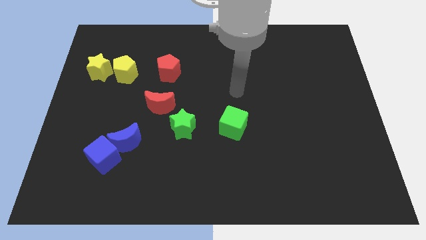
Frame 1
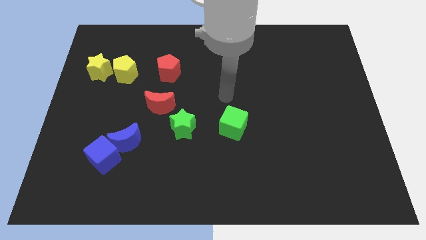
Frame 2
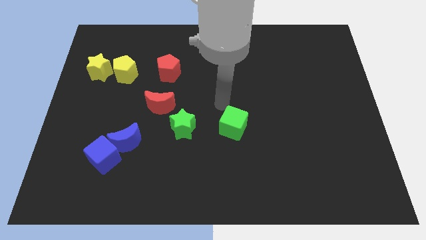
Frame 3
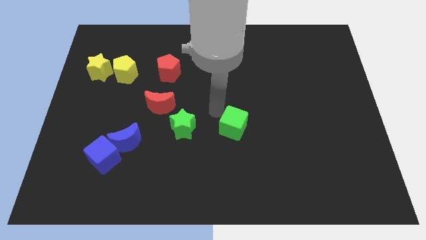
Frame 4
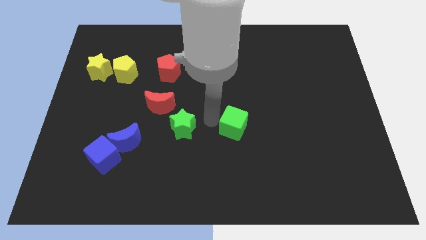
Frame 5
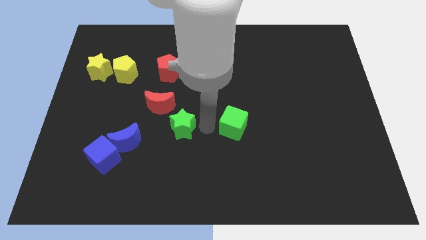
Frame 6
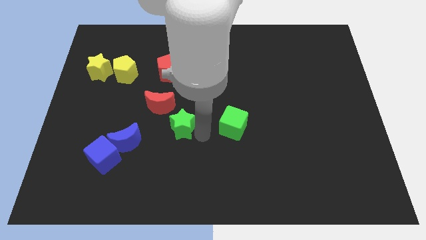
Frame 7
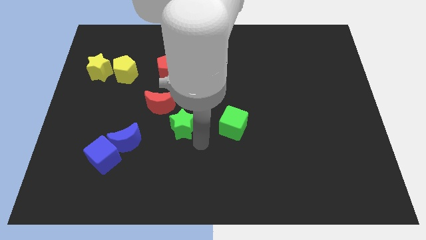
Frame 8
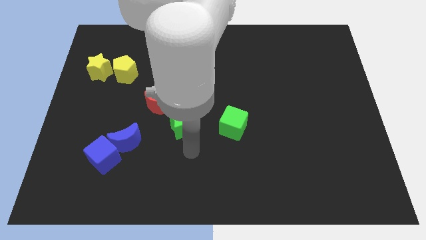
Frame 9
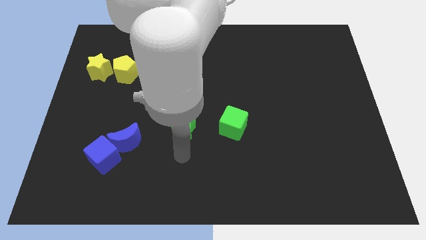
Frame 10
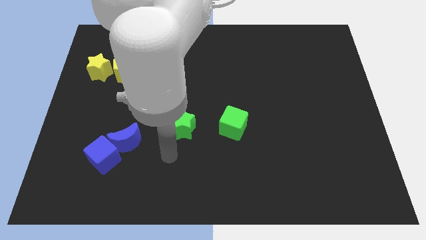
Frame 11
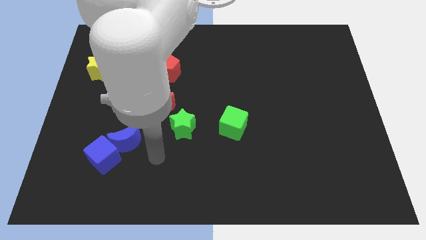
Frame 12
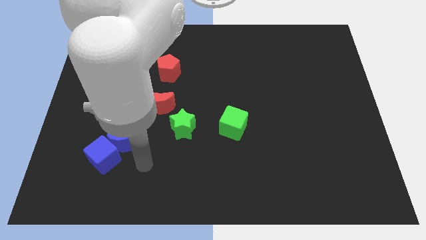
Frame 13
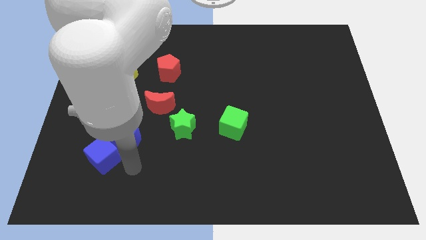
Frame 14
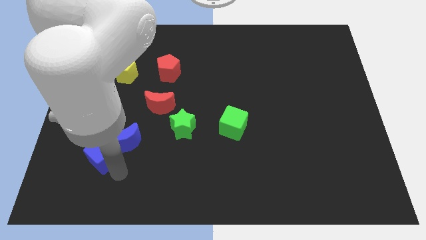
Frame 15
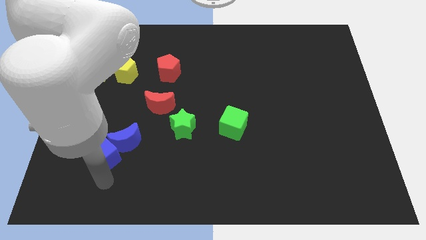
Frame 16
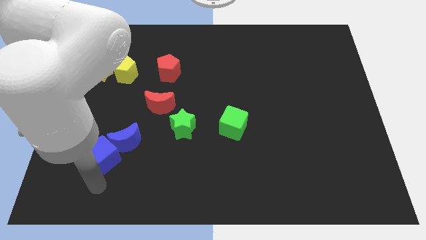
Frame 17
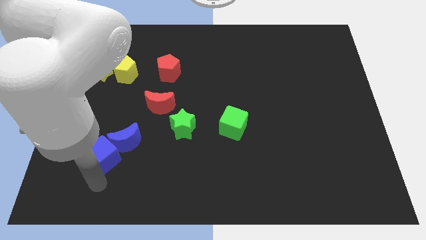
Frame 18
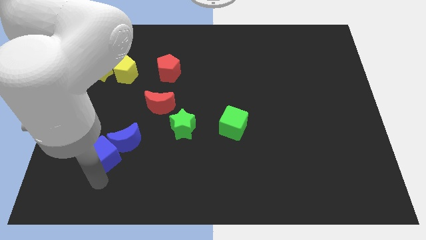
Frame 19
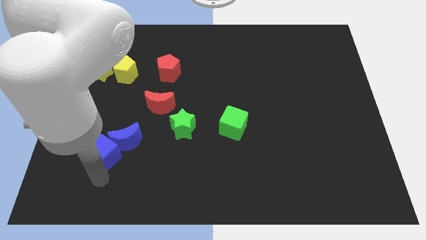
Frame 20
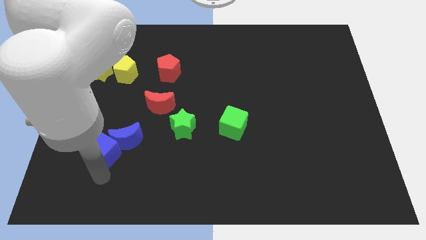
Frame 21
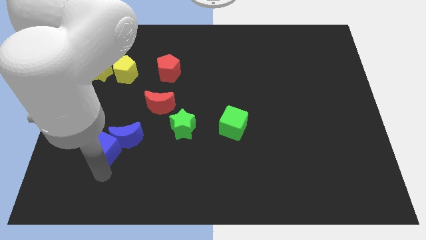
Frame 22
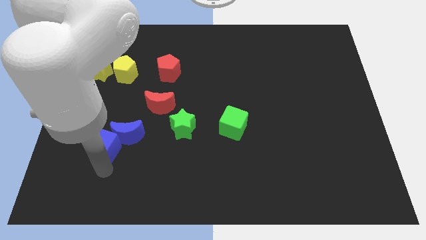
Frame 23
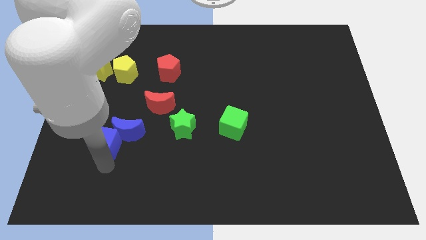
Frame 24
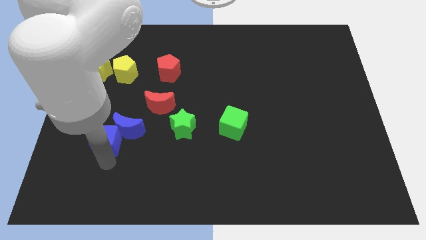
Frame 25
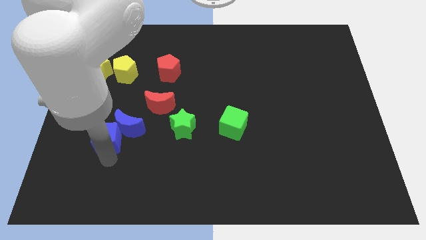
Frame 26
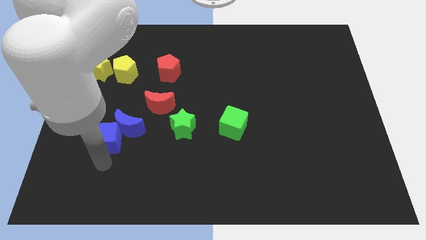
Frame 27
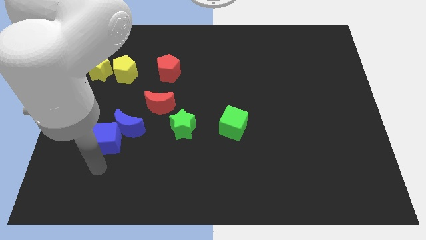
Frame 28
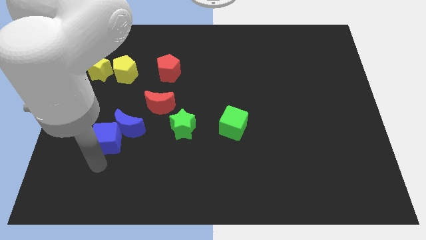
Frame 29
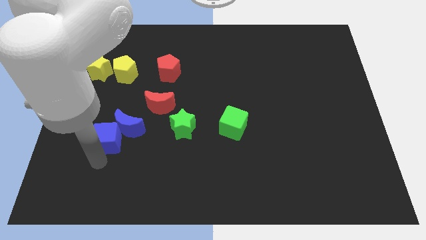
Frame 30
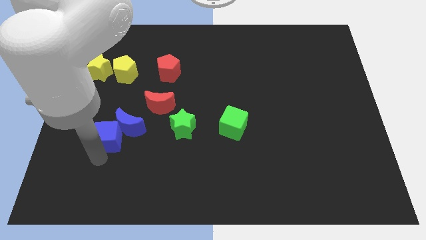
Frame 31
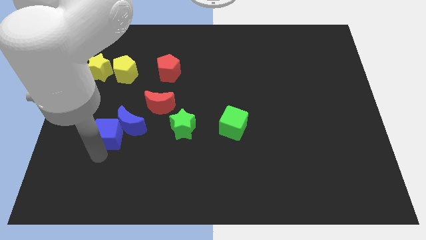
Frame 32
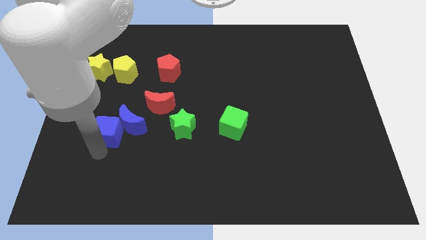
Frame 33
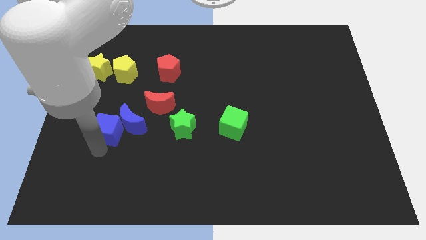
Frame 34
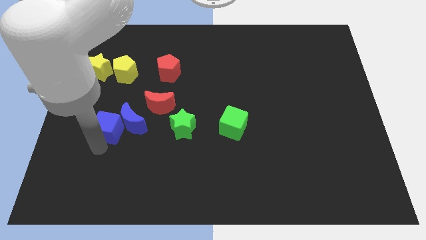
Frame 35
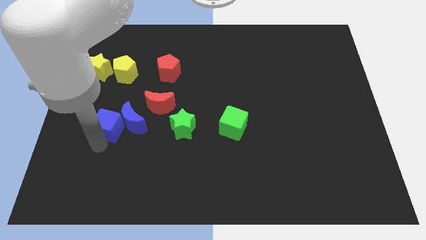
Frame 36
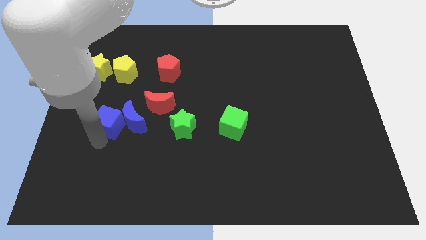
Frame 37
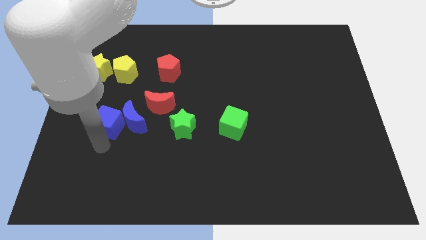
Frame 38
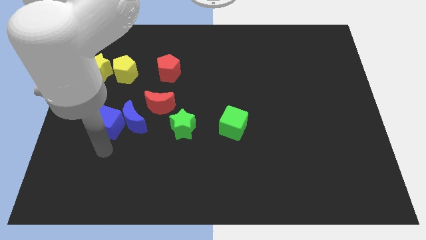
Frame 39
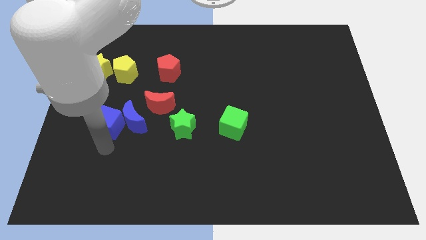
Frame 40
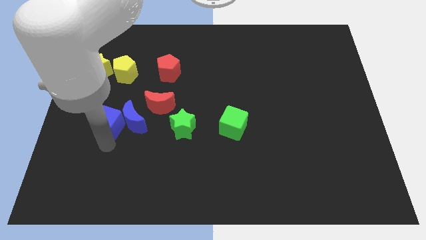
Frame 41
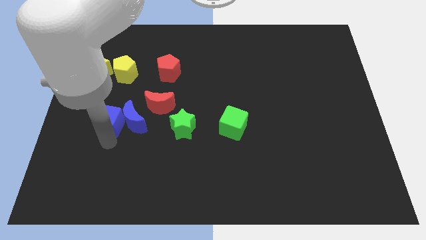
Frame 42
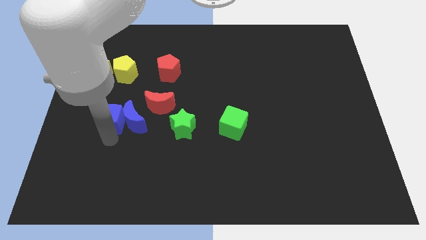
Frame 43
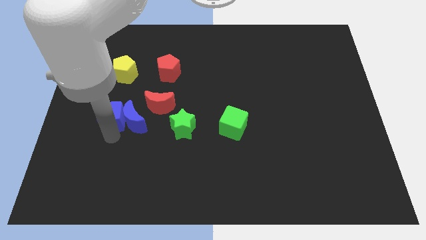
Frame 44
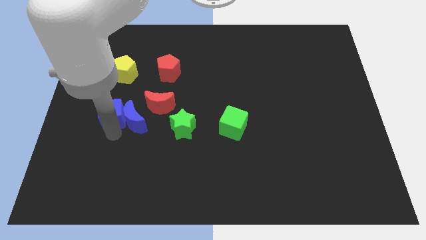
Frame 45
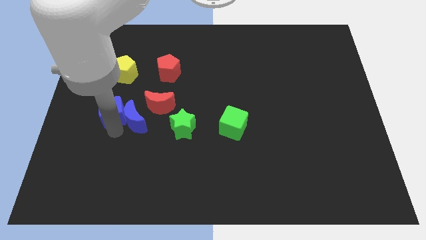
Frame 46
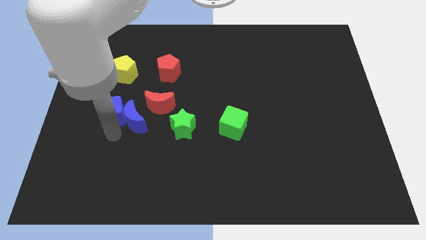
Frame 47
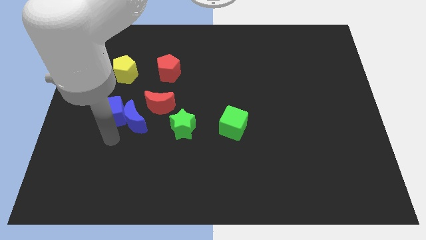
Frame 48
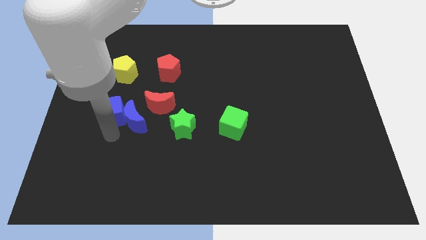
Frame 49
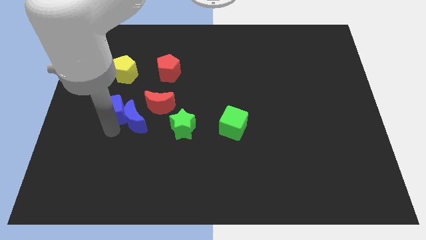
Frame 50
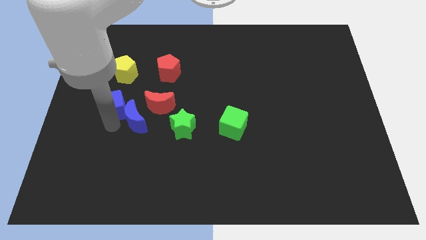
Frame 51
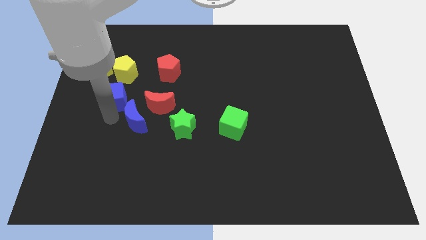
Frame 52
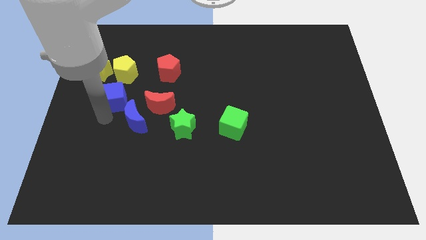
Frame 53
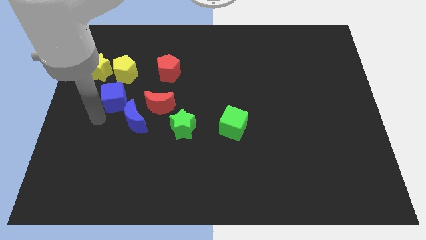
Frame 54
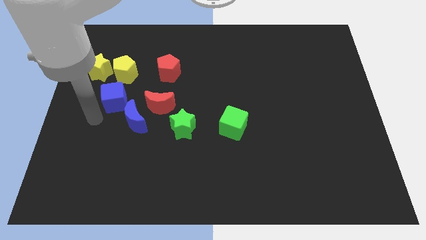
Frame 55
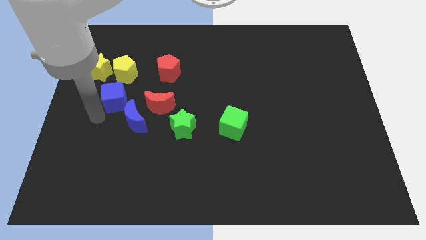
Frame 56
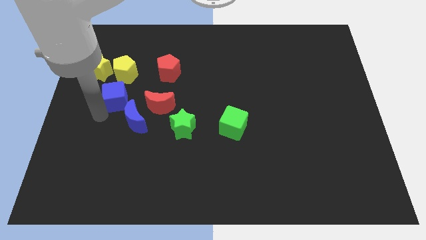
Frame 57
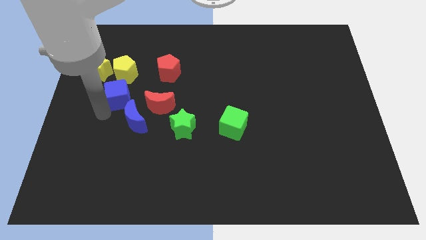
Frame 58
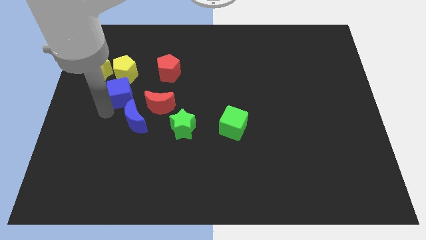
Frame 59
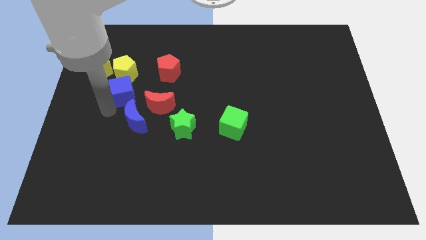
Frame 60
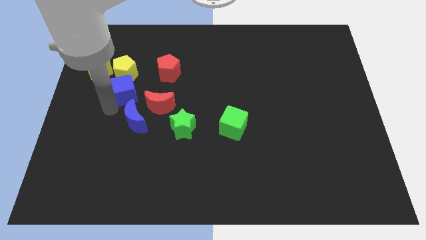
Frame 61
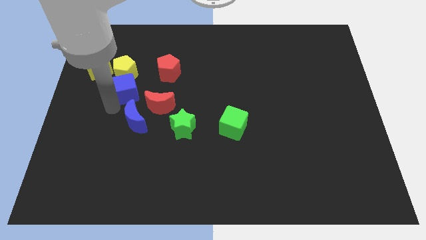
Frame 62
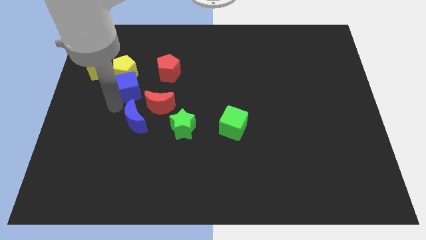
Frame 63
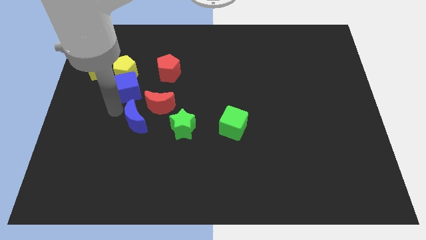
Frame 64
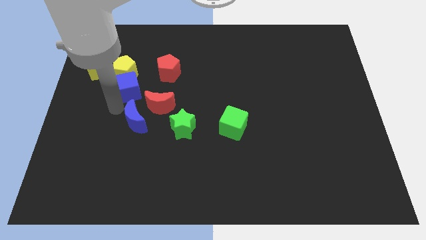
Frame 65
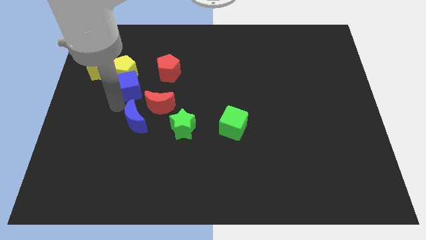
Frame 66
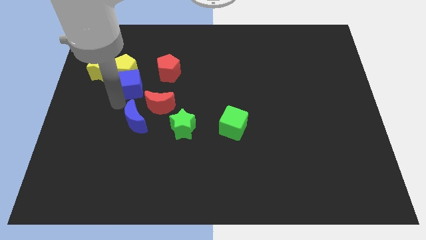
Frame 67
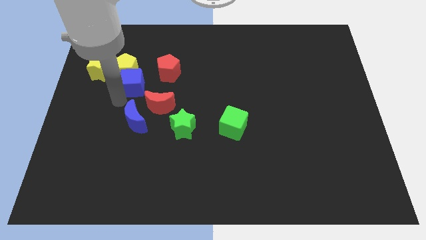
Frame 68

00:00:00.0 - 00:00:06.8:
put the blue cube to the right of the yellow star
